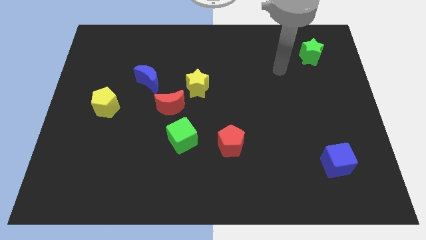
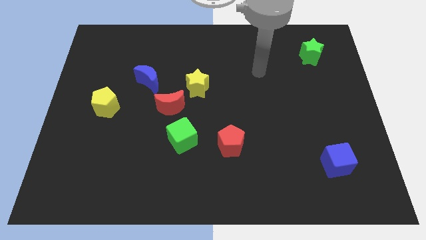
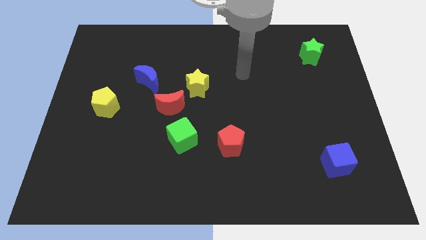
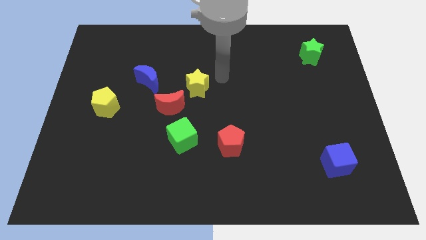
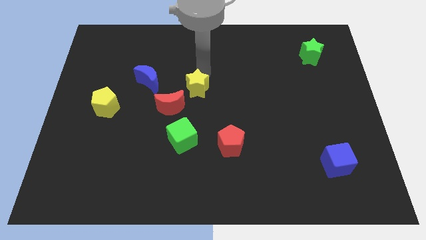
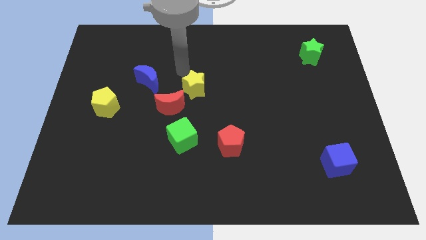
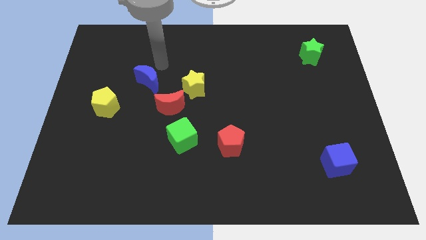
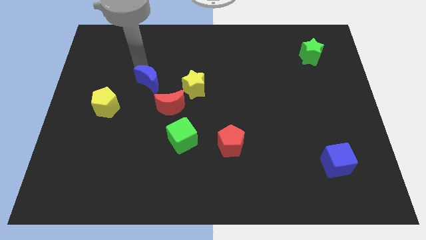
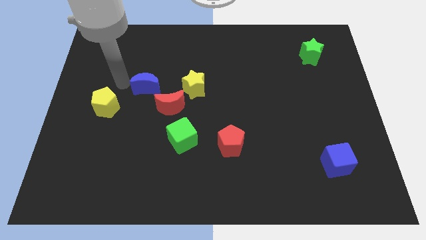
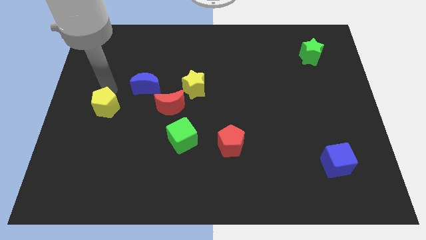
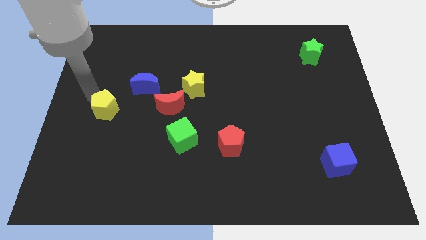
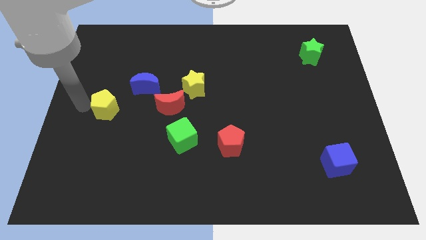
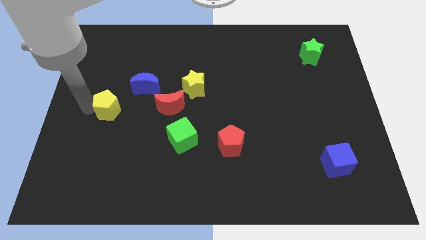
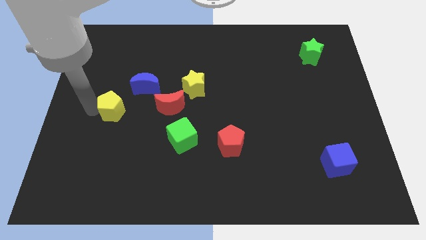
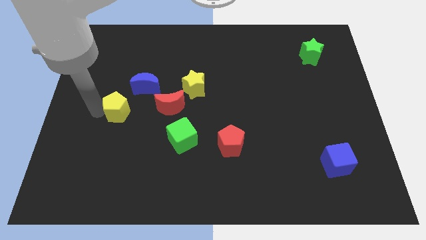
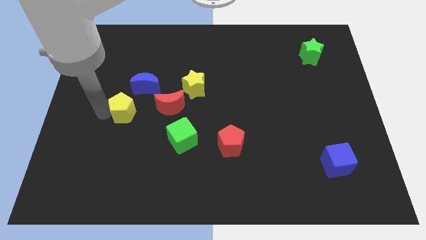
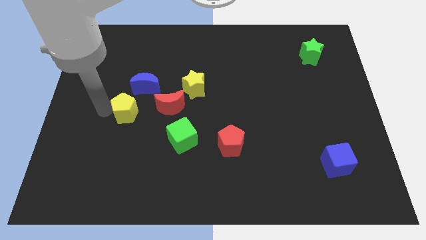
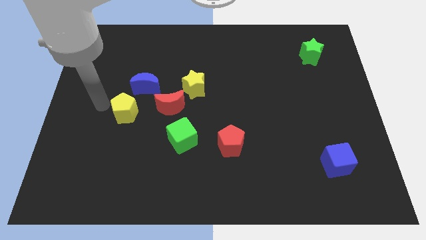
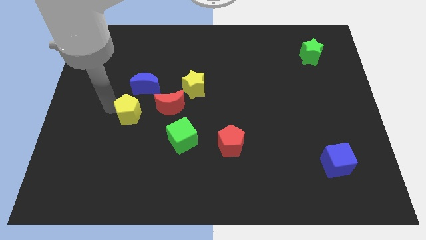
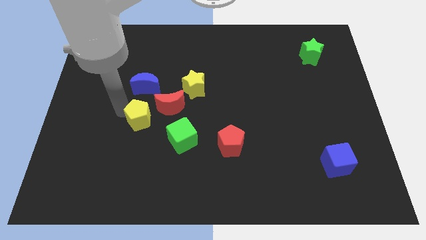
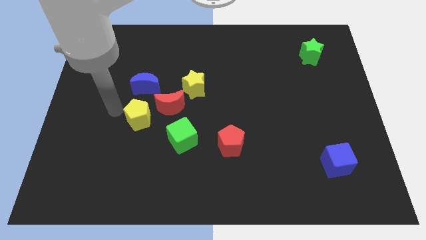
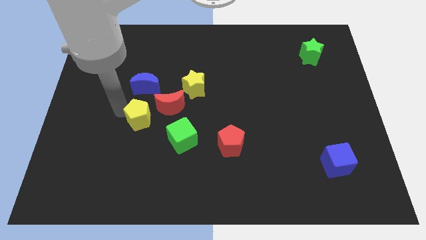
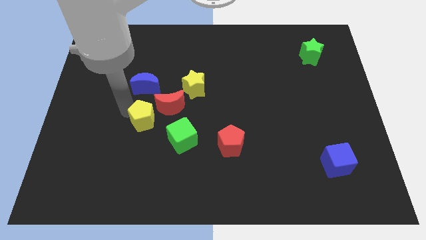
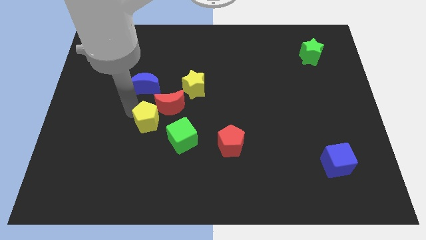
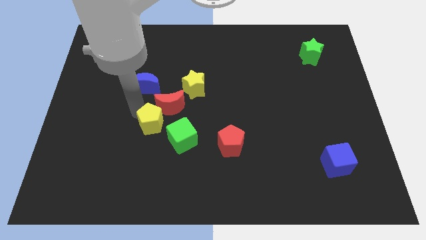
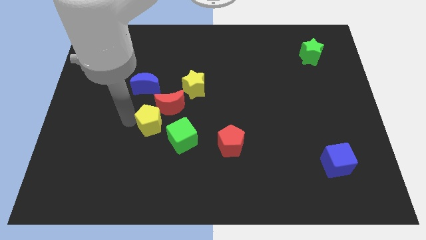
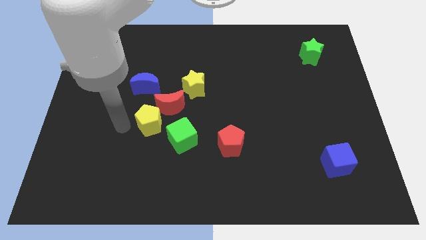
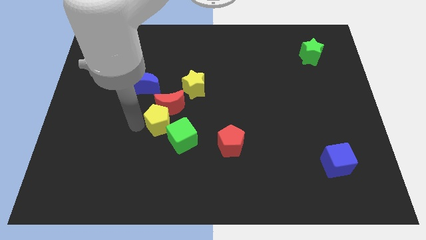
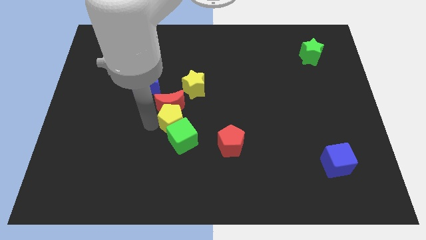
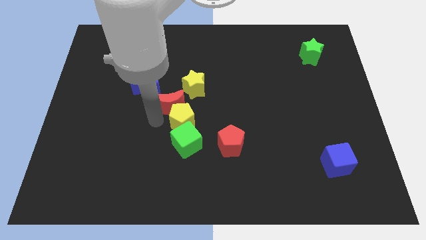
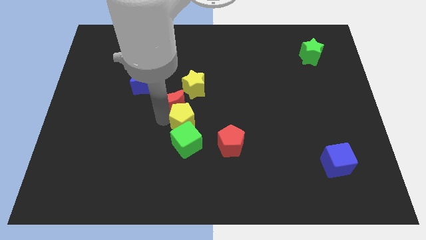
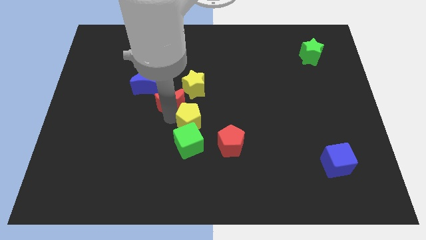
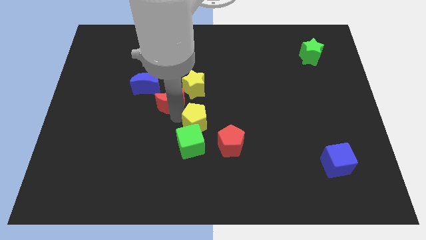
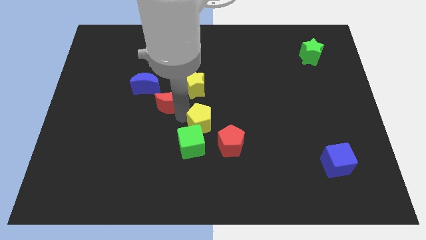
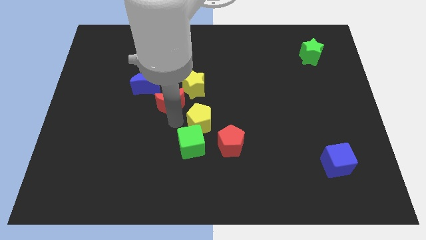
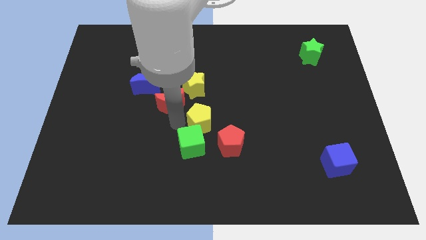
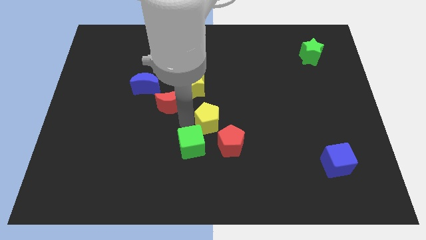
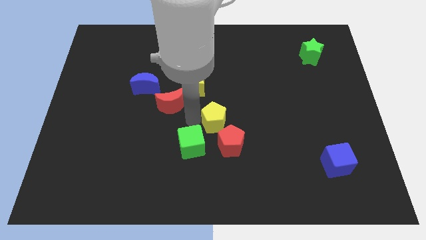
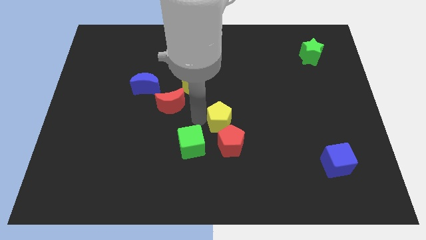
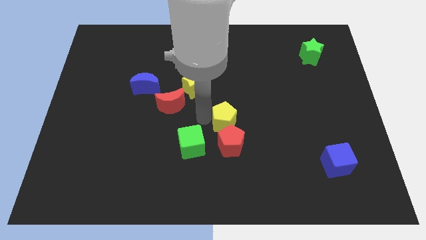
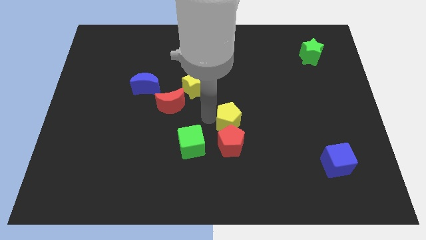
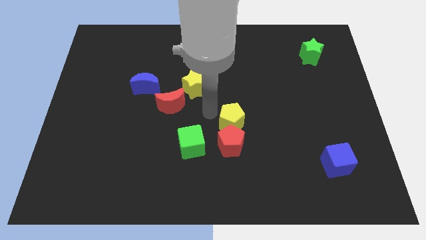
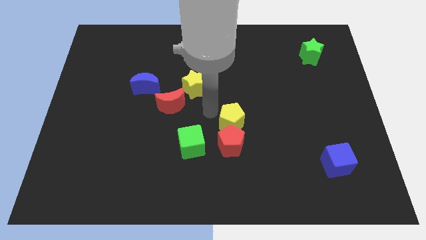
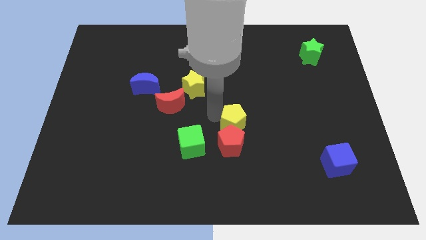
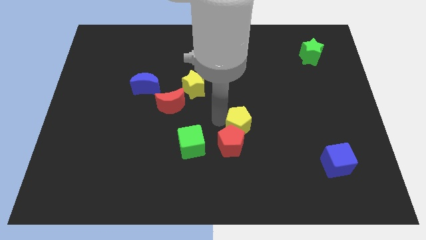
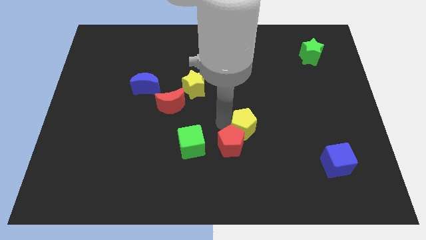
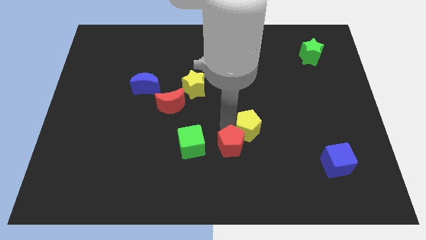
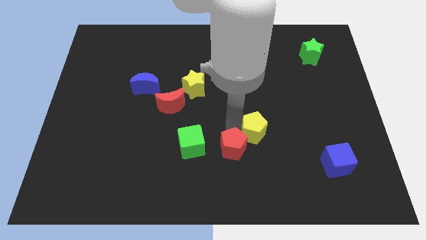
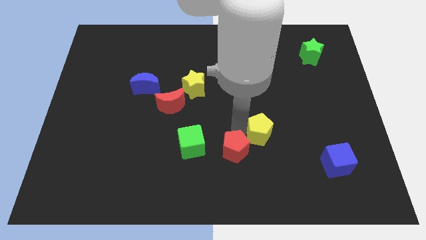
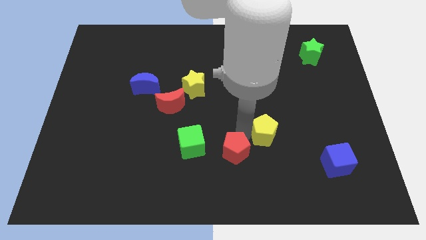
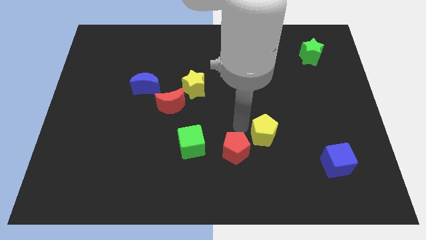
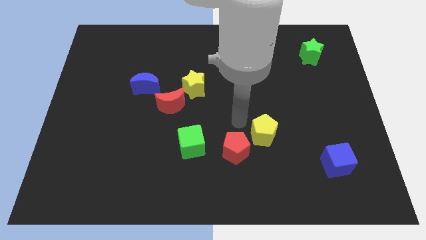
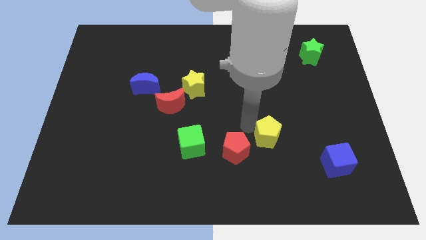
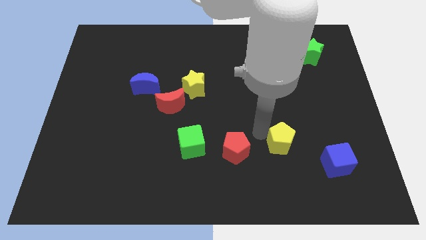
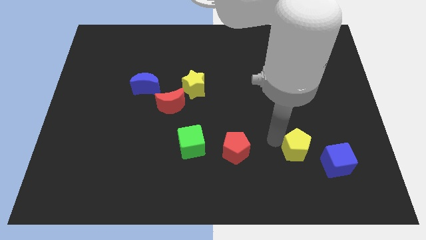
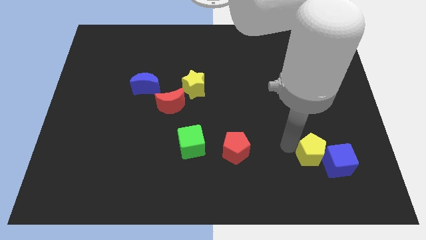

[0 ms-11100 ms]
push the yellow pentagon close to the blue cube

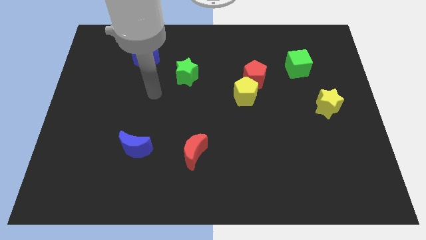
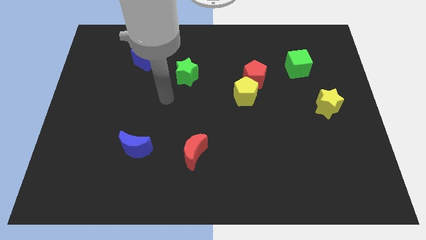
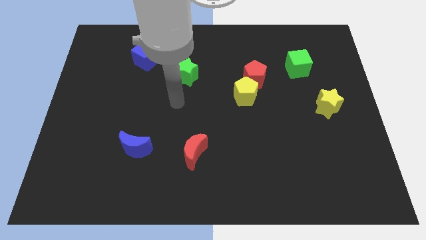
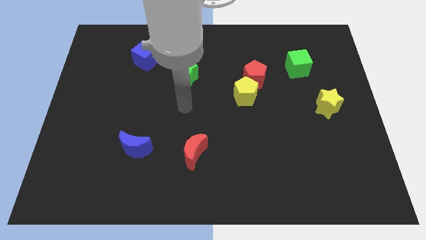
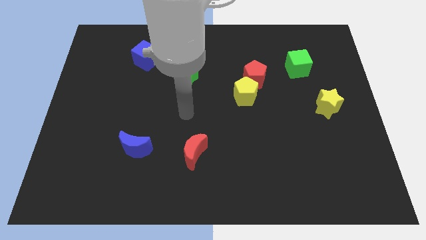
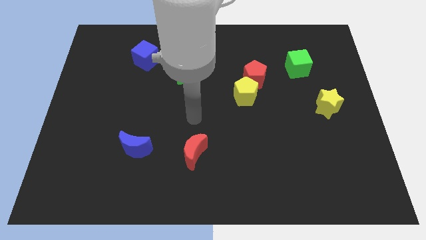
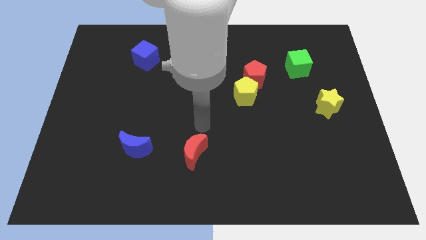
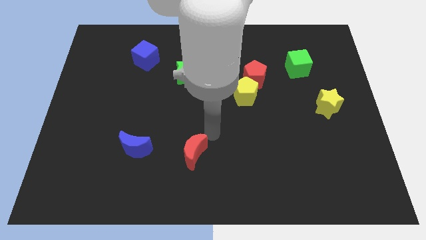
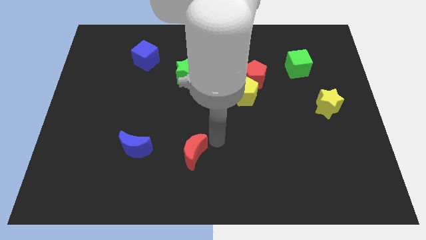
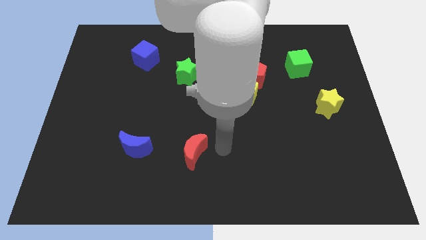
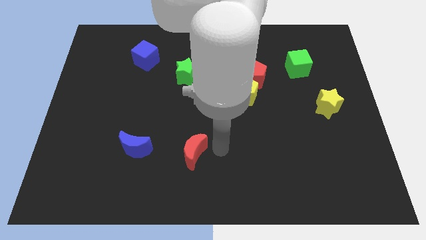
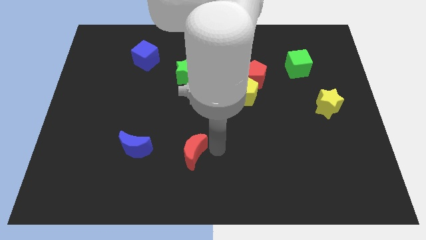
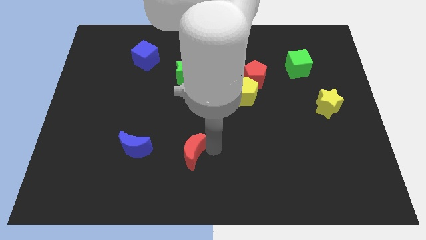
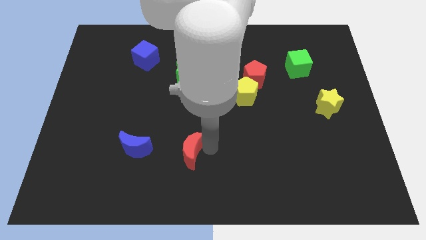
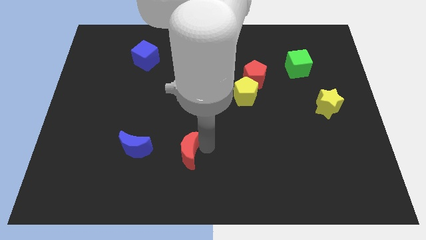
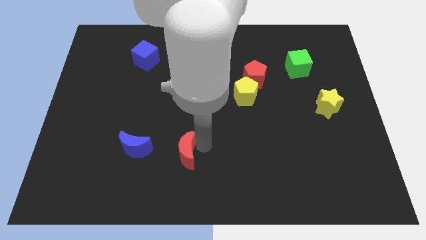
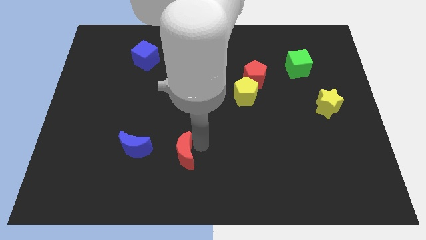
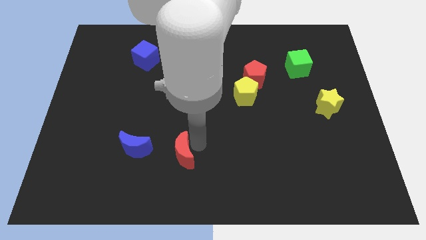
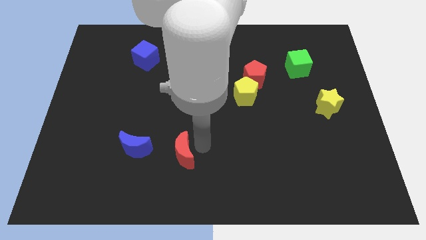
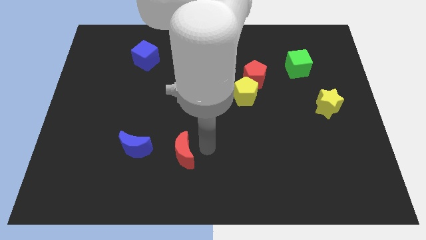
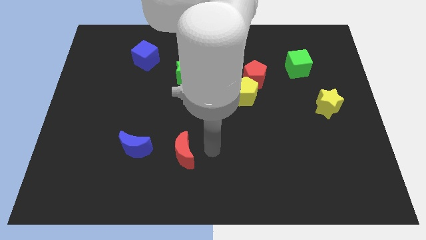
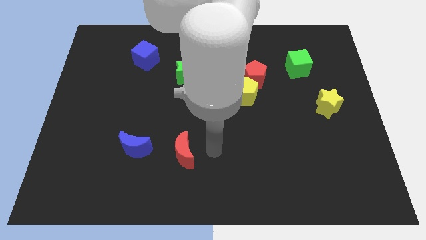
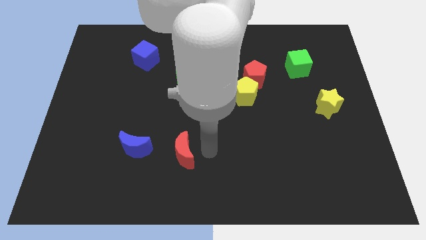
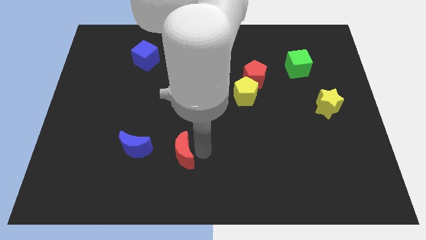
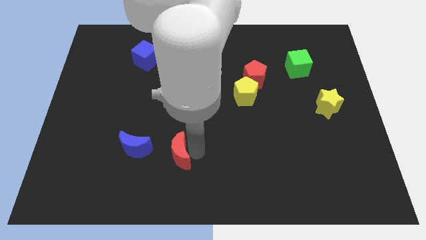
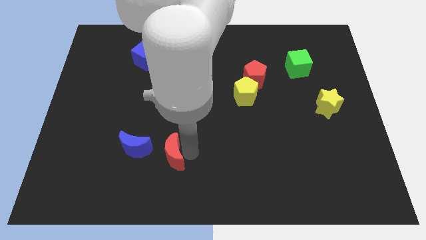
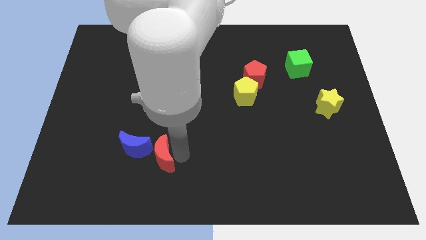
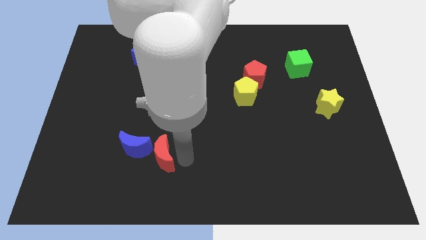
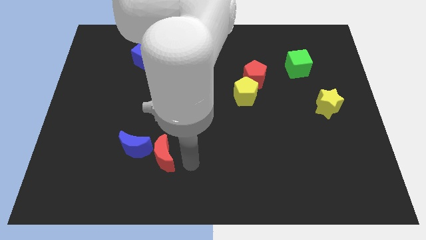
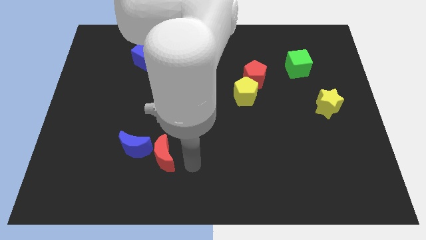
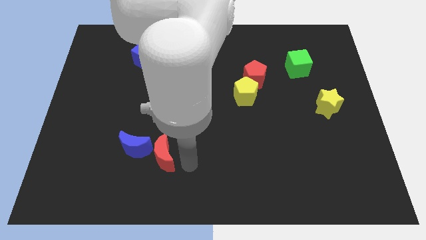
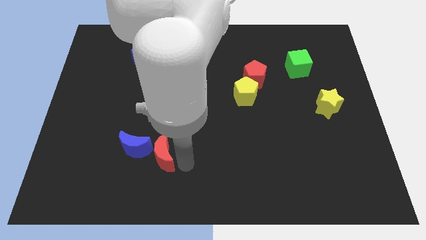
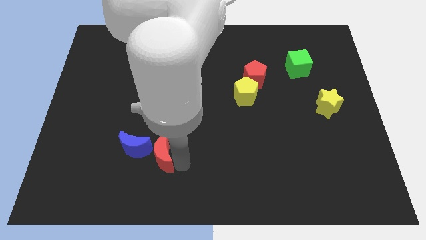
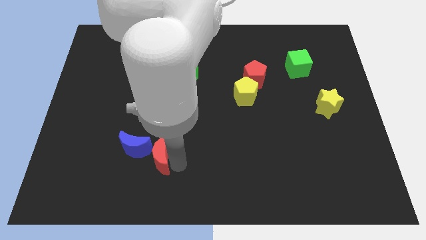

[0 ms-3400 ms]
move the red moon close to the blue moon
